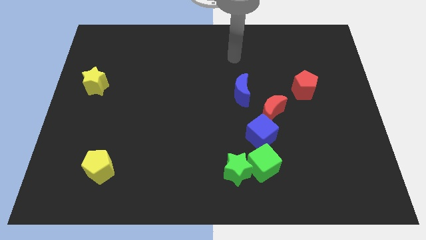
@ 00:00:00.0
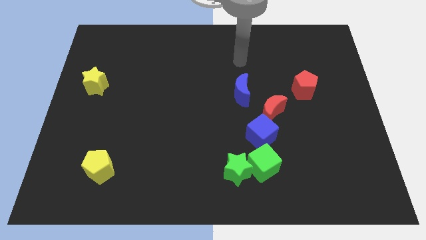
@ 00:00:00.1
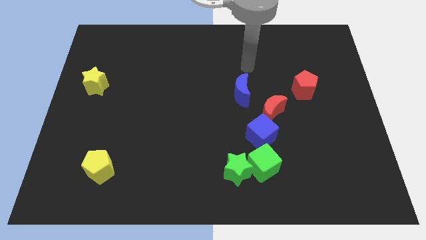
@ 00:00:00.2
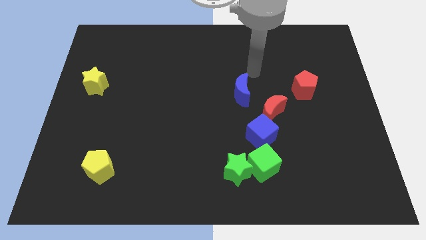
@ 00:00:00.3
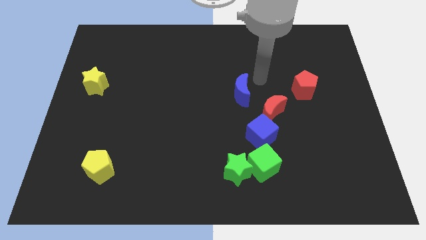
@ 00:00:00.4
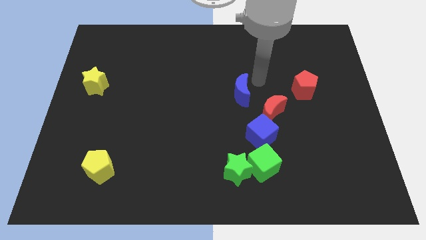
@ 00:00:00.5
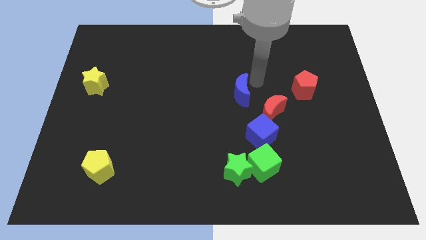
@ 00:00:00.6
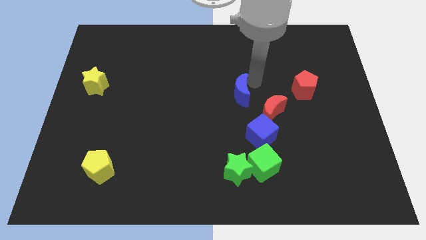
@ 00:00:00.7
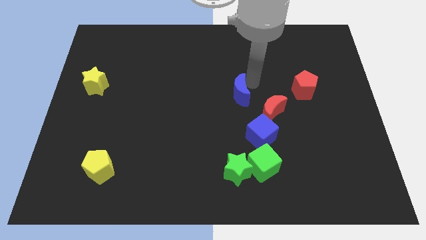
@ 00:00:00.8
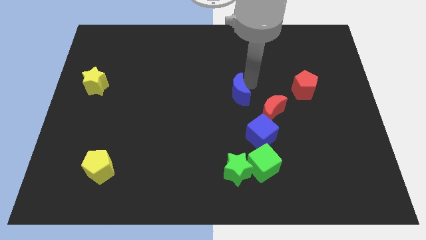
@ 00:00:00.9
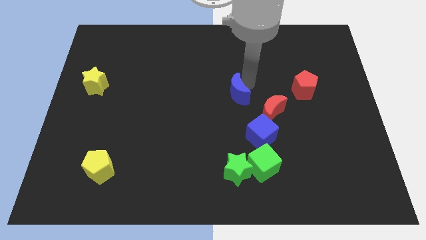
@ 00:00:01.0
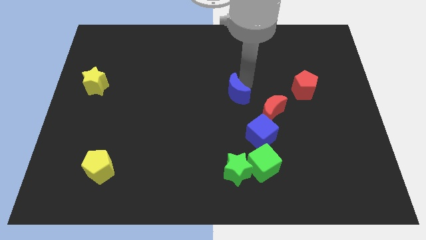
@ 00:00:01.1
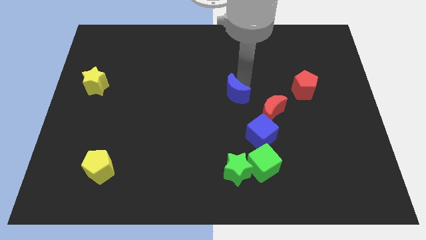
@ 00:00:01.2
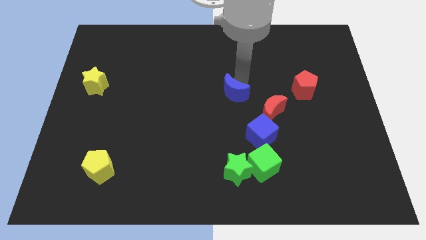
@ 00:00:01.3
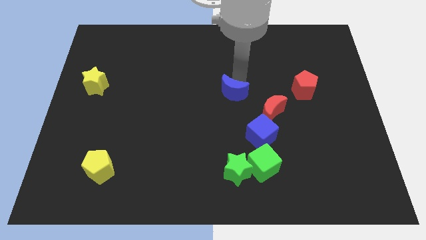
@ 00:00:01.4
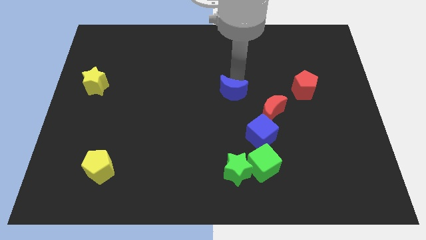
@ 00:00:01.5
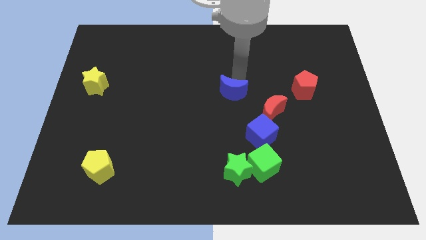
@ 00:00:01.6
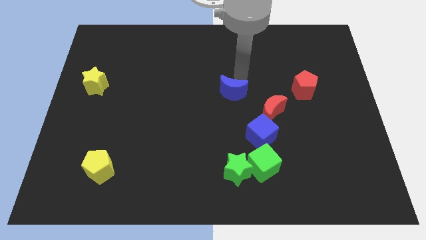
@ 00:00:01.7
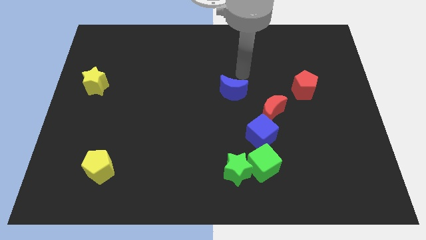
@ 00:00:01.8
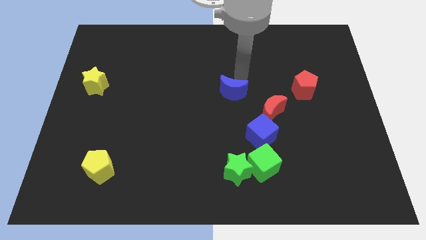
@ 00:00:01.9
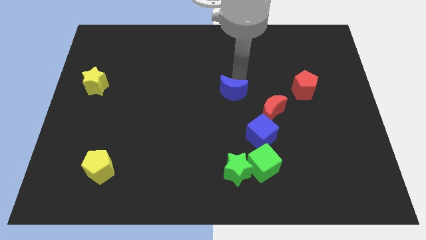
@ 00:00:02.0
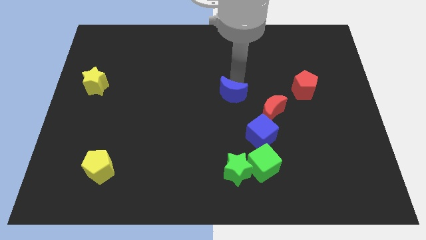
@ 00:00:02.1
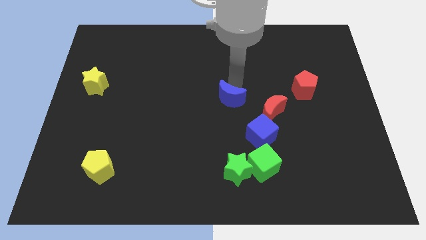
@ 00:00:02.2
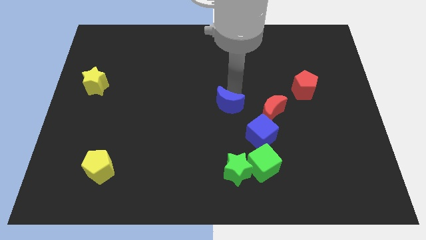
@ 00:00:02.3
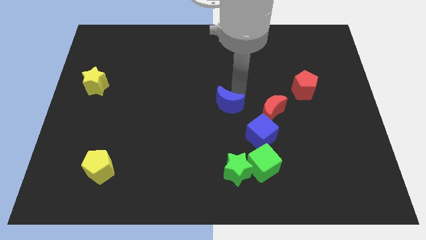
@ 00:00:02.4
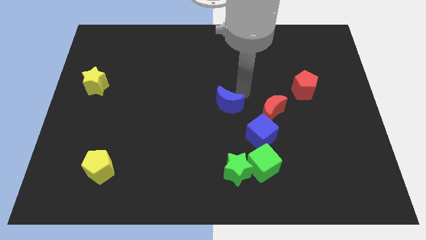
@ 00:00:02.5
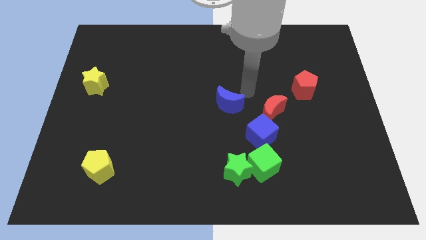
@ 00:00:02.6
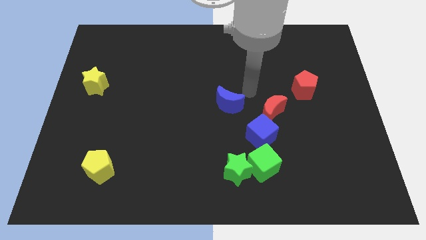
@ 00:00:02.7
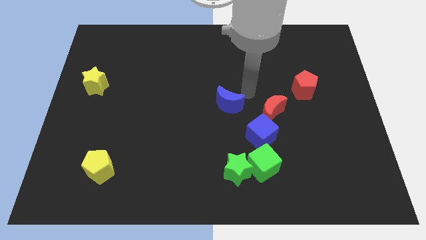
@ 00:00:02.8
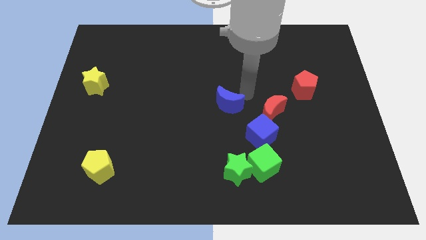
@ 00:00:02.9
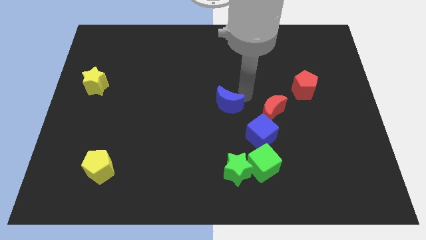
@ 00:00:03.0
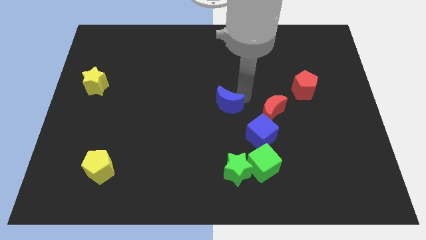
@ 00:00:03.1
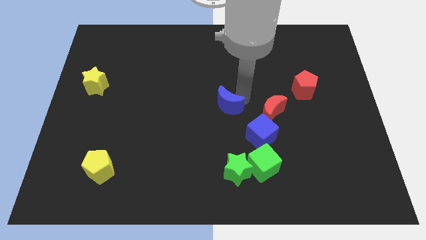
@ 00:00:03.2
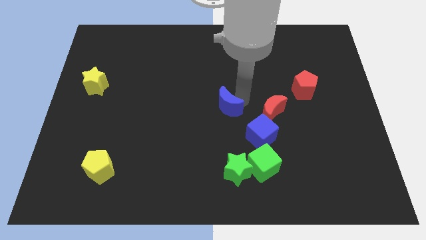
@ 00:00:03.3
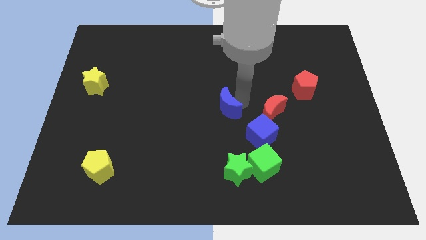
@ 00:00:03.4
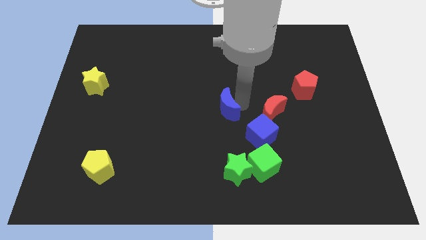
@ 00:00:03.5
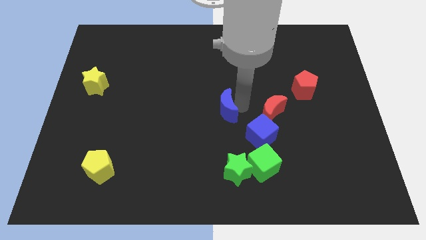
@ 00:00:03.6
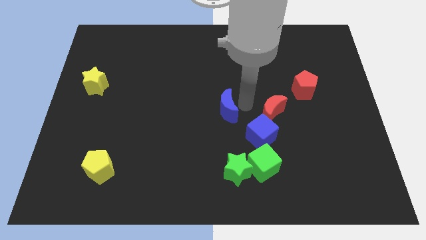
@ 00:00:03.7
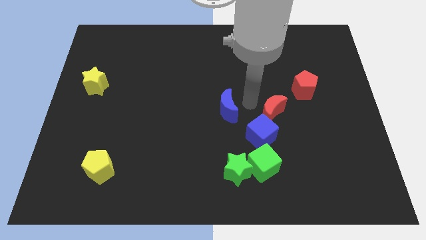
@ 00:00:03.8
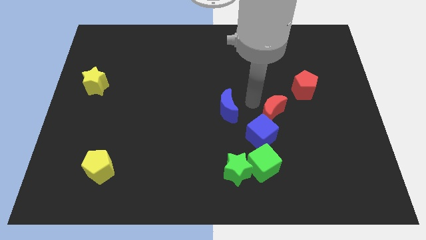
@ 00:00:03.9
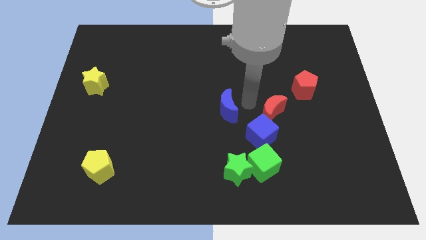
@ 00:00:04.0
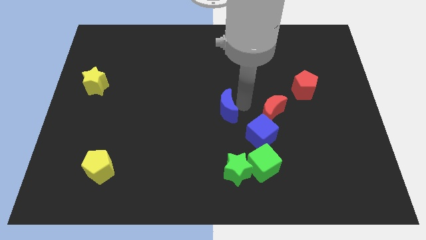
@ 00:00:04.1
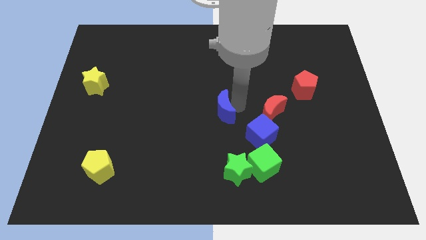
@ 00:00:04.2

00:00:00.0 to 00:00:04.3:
slide the blue moon somewhat downwards and then left

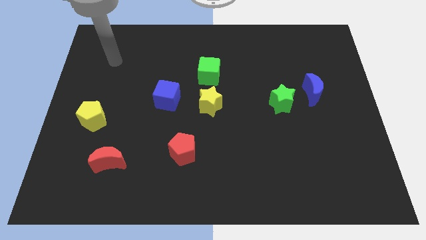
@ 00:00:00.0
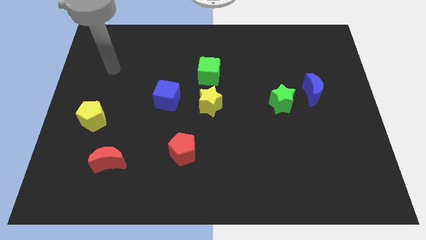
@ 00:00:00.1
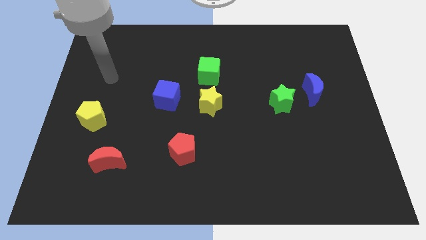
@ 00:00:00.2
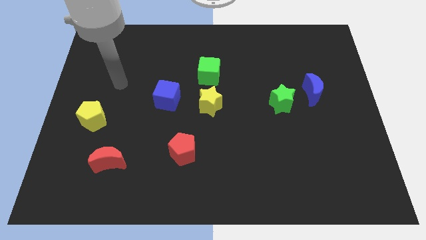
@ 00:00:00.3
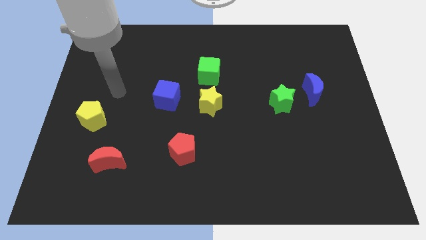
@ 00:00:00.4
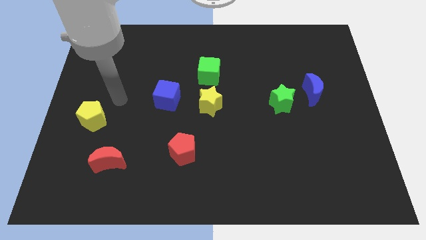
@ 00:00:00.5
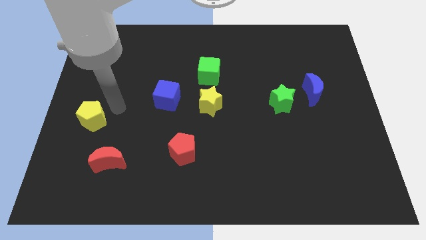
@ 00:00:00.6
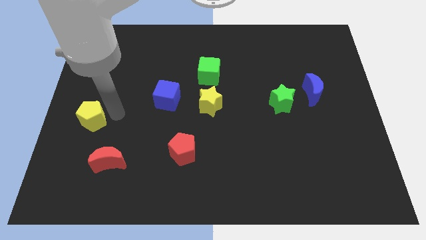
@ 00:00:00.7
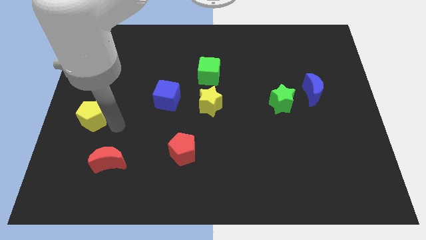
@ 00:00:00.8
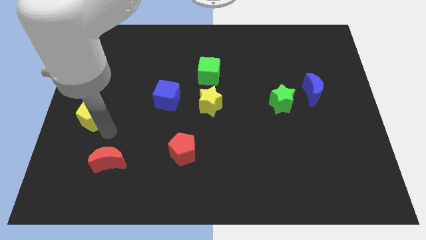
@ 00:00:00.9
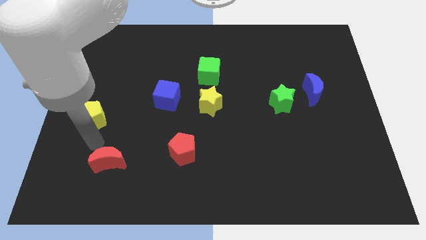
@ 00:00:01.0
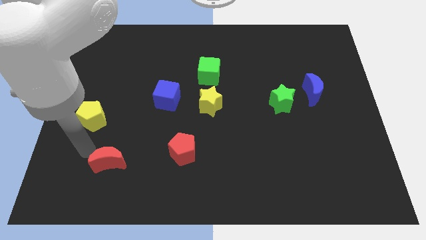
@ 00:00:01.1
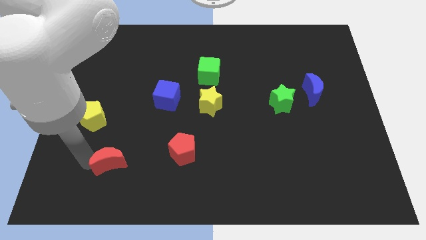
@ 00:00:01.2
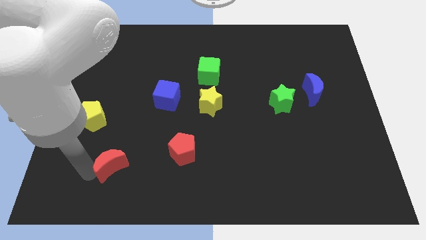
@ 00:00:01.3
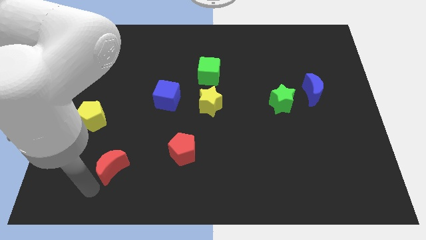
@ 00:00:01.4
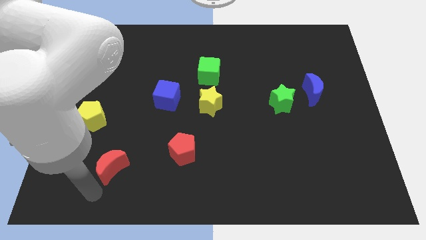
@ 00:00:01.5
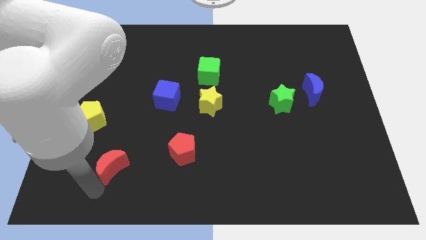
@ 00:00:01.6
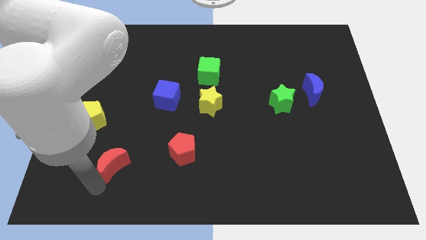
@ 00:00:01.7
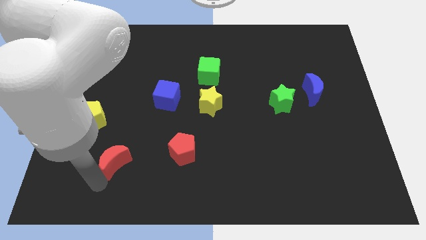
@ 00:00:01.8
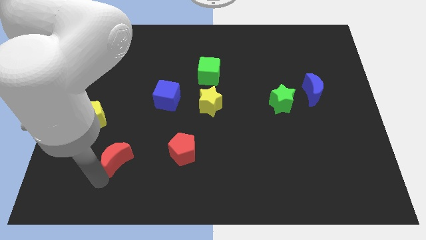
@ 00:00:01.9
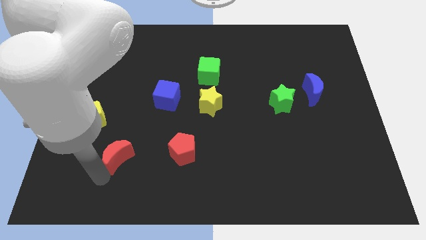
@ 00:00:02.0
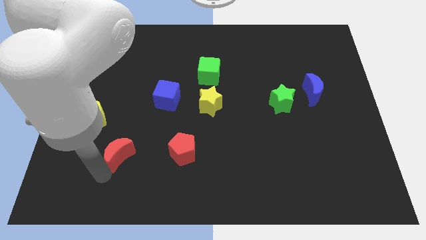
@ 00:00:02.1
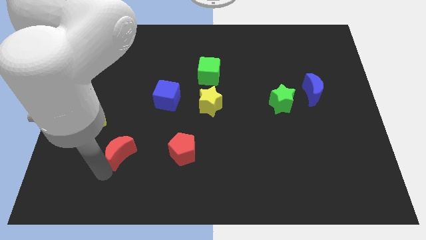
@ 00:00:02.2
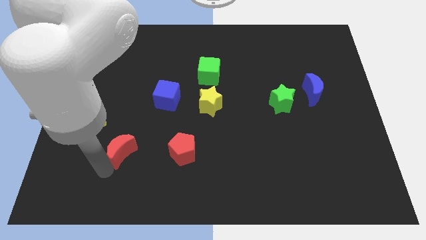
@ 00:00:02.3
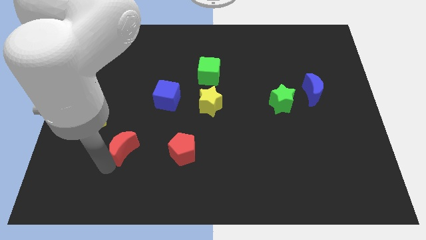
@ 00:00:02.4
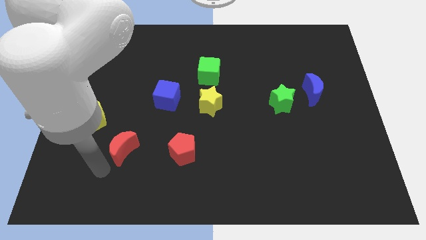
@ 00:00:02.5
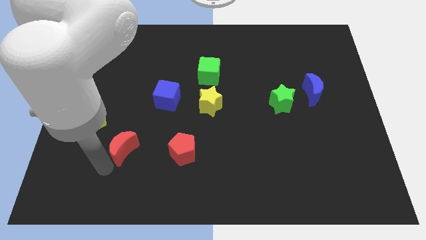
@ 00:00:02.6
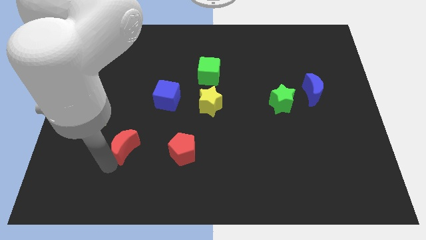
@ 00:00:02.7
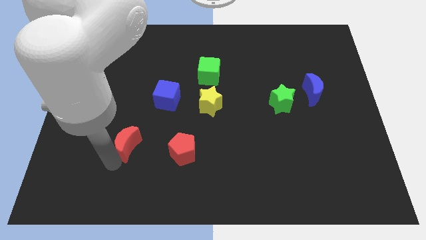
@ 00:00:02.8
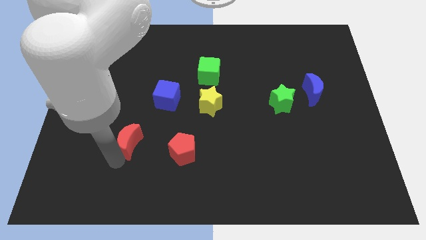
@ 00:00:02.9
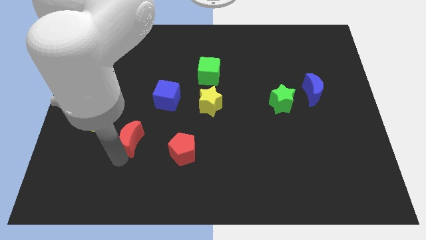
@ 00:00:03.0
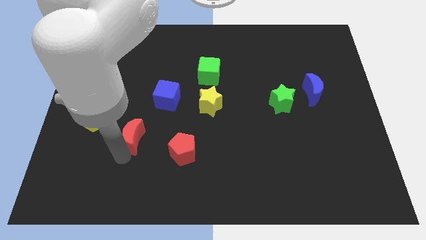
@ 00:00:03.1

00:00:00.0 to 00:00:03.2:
move the red moon a little bit up and then to the right

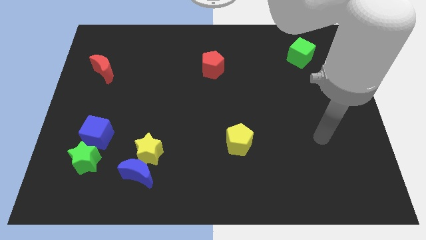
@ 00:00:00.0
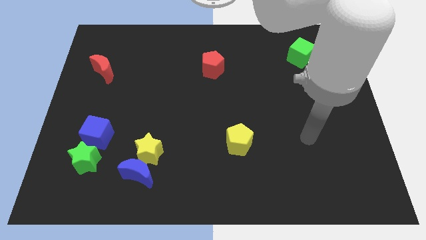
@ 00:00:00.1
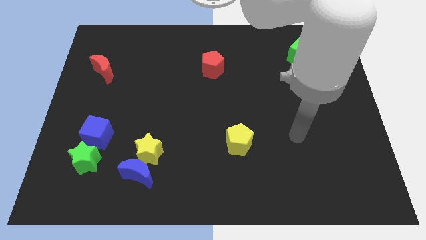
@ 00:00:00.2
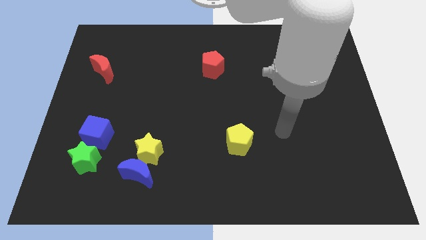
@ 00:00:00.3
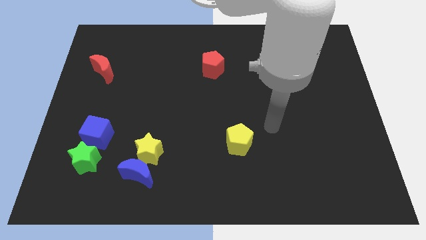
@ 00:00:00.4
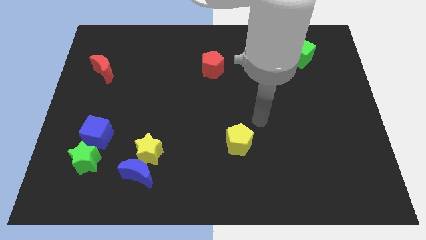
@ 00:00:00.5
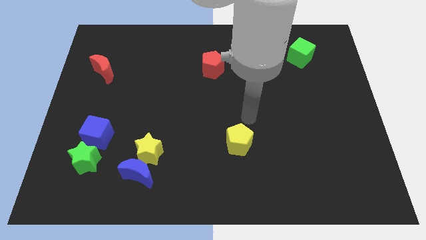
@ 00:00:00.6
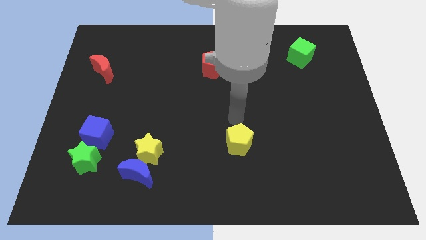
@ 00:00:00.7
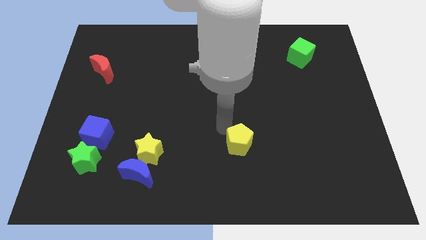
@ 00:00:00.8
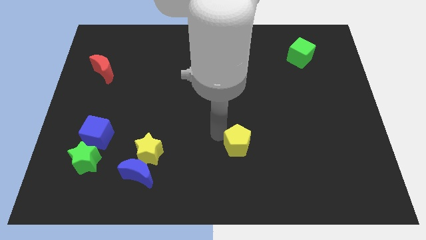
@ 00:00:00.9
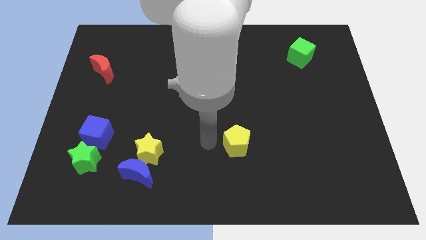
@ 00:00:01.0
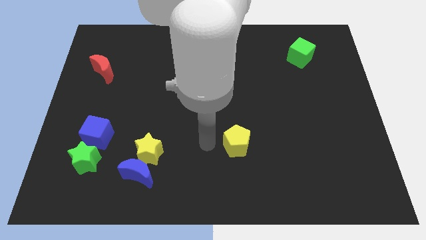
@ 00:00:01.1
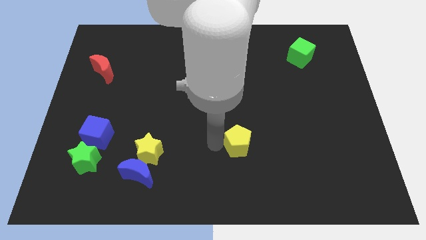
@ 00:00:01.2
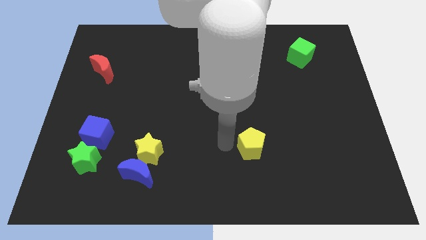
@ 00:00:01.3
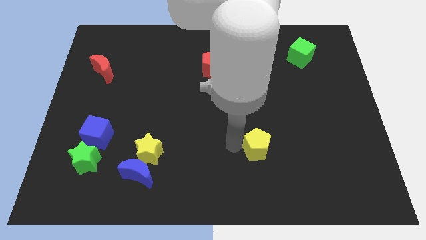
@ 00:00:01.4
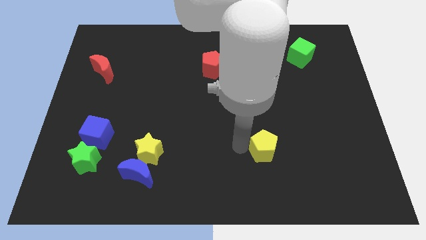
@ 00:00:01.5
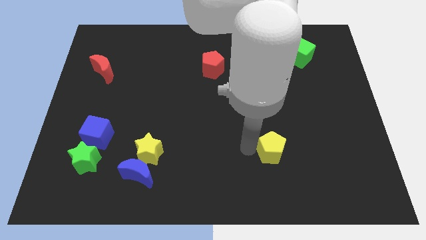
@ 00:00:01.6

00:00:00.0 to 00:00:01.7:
slightly move the yellow pentagon right
